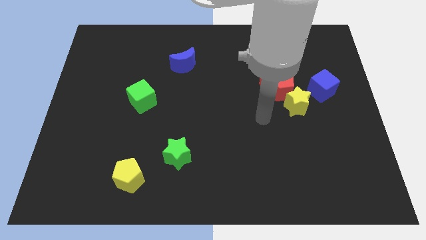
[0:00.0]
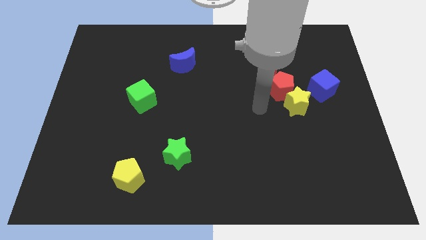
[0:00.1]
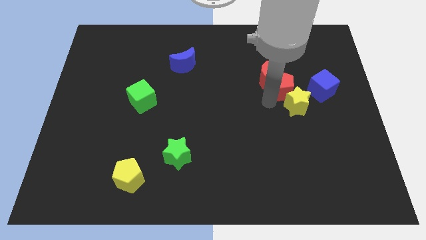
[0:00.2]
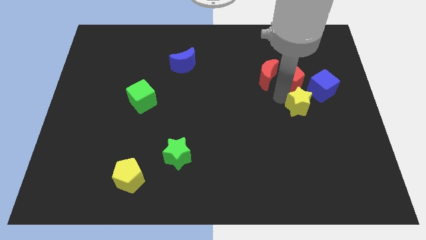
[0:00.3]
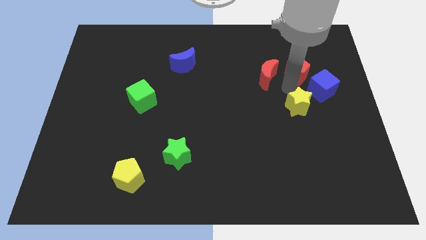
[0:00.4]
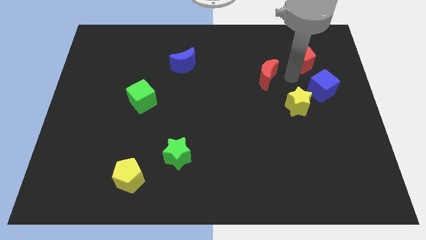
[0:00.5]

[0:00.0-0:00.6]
separate the red moon from the red pentagon

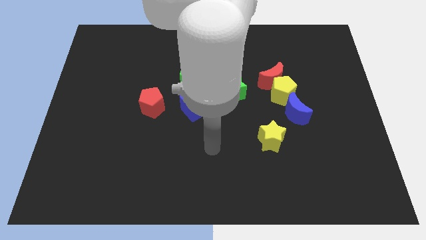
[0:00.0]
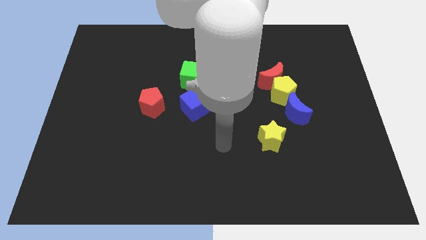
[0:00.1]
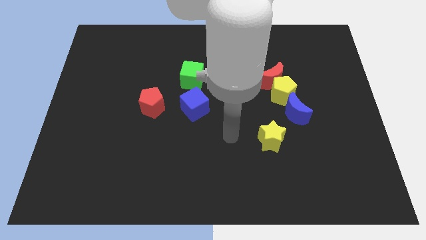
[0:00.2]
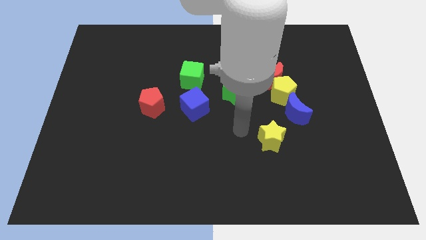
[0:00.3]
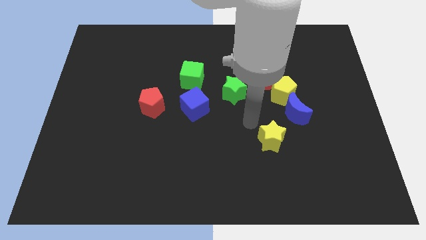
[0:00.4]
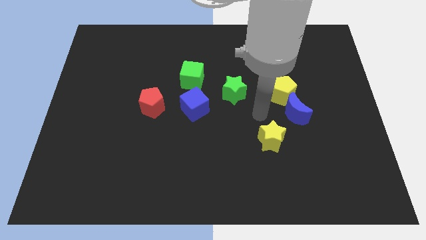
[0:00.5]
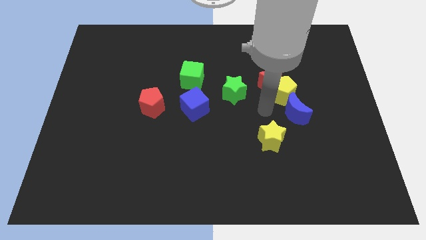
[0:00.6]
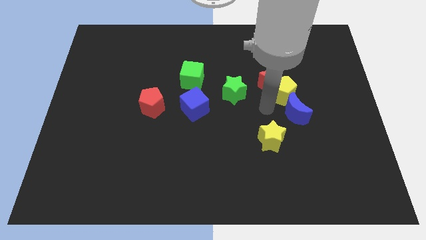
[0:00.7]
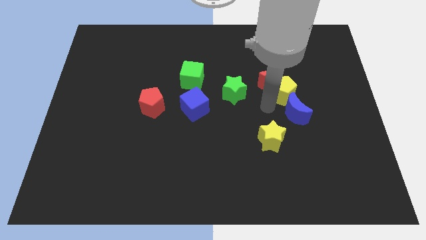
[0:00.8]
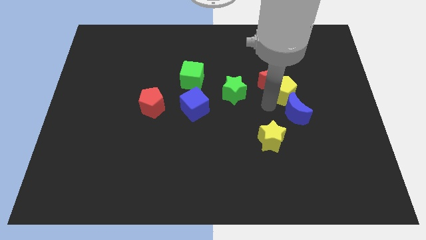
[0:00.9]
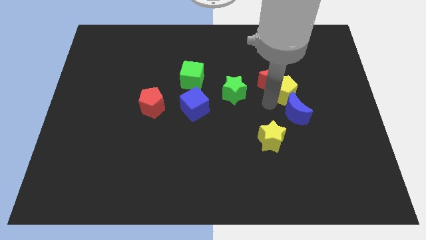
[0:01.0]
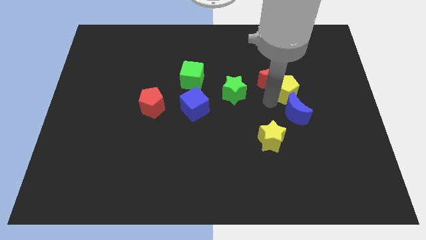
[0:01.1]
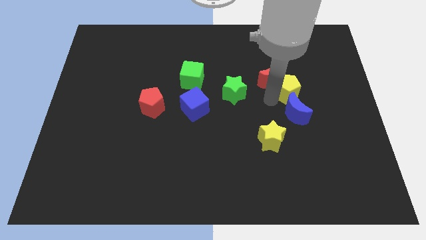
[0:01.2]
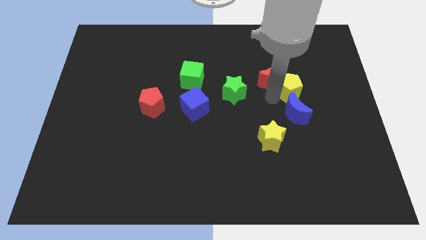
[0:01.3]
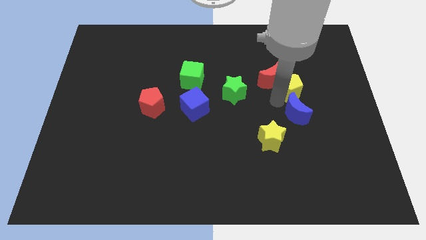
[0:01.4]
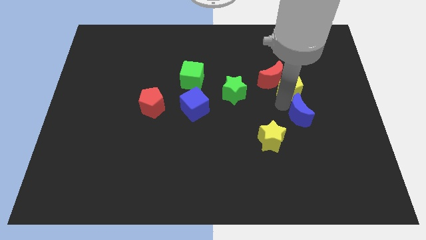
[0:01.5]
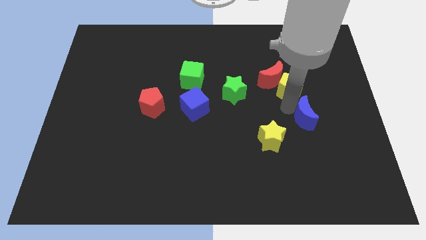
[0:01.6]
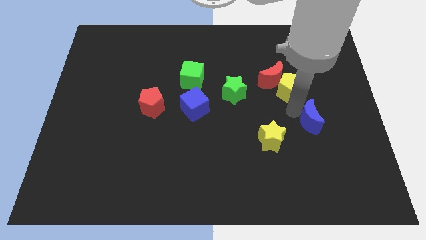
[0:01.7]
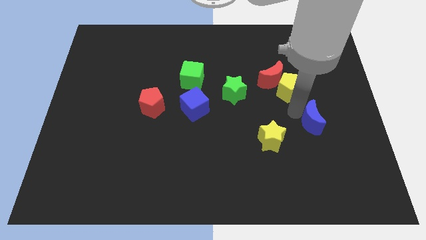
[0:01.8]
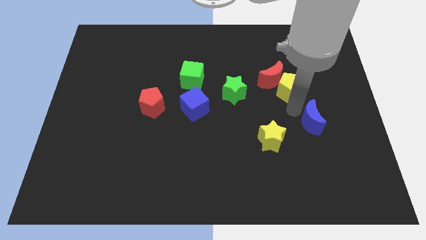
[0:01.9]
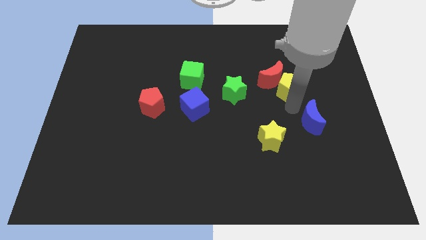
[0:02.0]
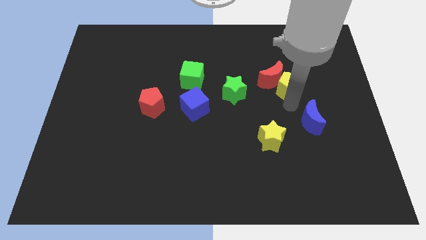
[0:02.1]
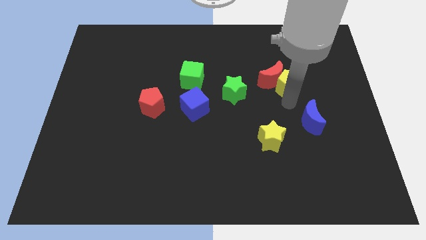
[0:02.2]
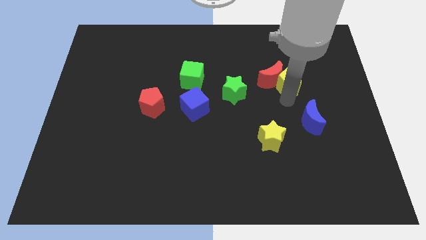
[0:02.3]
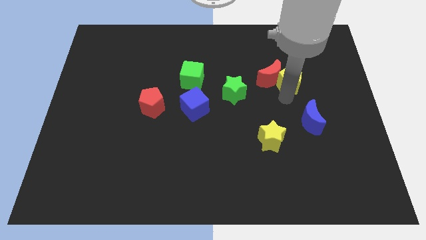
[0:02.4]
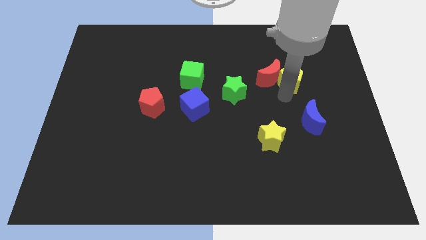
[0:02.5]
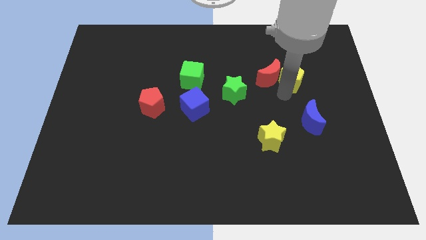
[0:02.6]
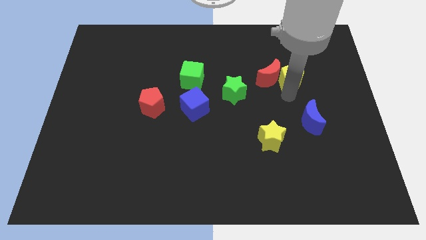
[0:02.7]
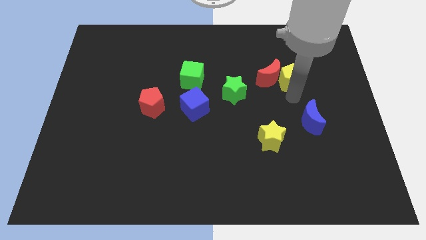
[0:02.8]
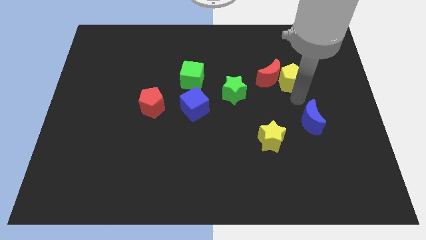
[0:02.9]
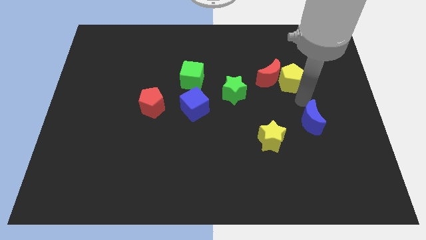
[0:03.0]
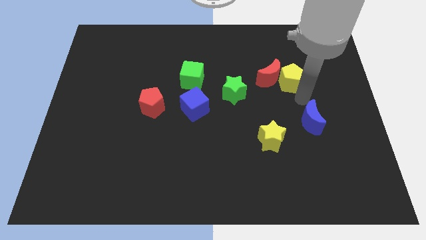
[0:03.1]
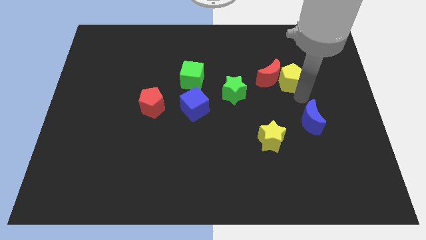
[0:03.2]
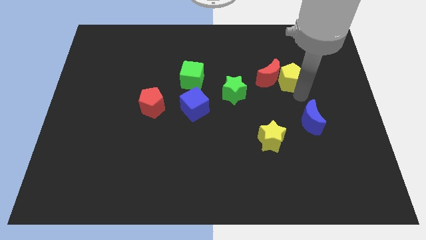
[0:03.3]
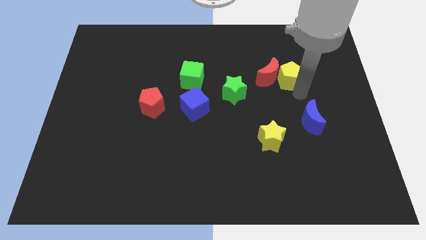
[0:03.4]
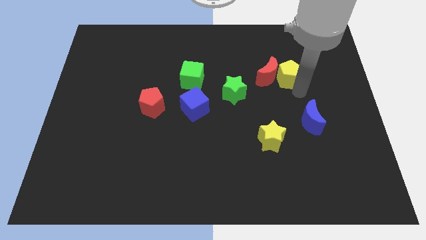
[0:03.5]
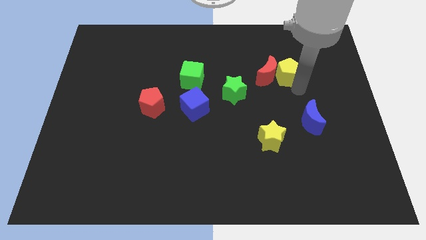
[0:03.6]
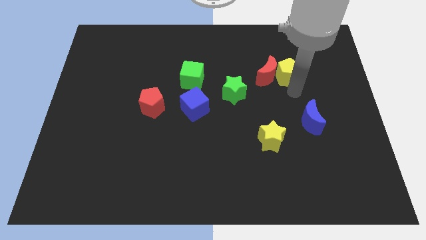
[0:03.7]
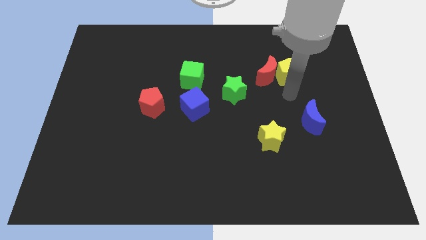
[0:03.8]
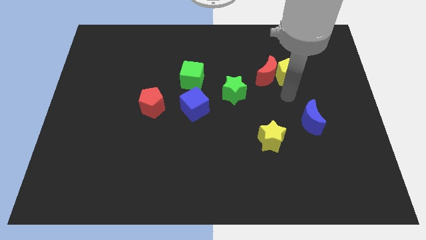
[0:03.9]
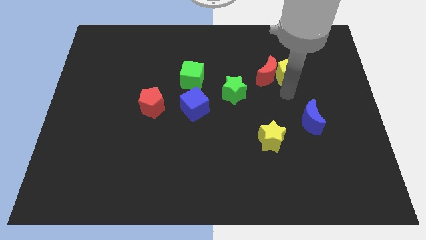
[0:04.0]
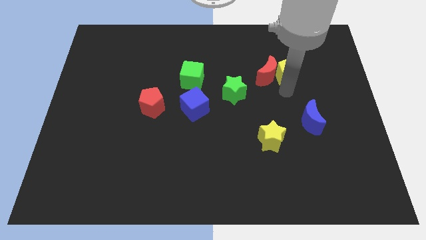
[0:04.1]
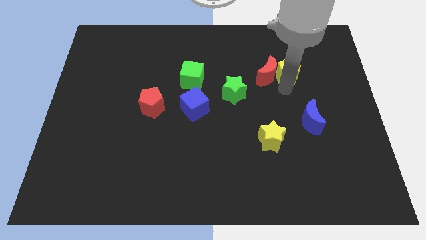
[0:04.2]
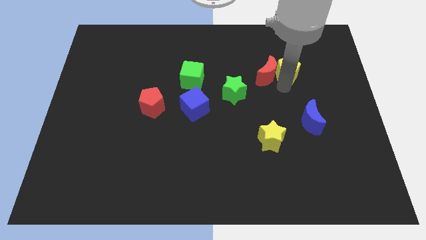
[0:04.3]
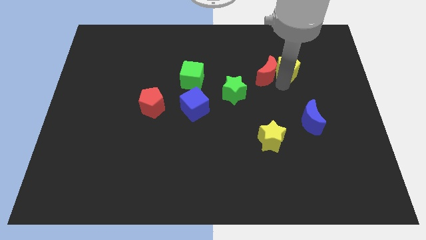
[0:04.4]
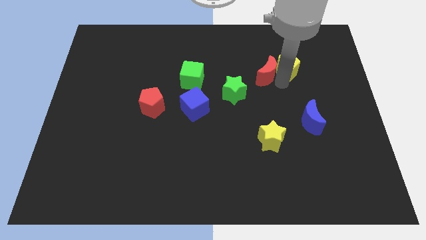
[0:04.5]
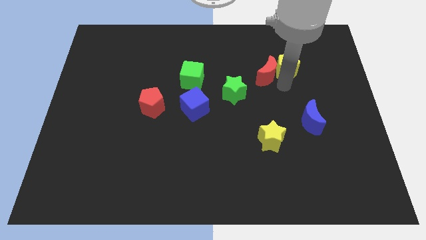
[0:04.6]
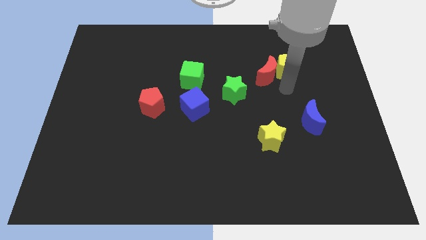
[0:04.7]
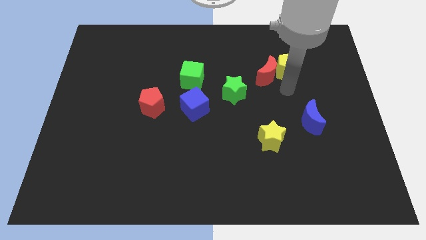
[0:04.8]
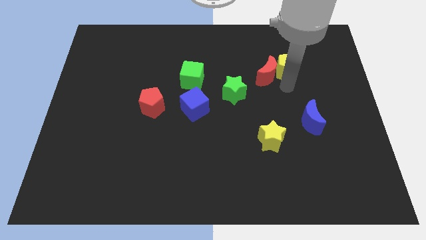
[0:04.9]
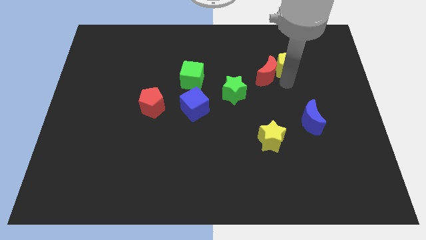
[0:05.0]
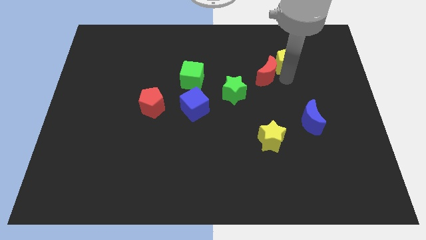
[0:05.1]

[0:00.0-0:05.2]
pull the yellow pentagon apart from the red moon and blue moon

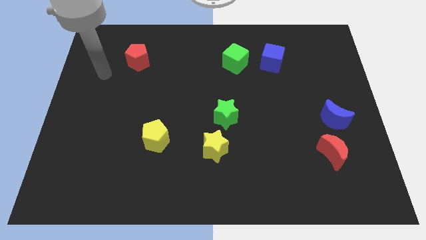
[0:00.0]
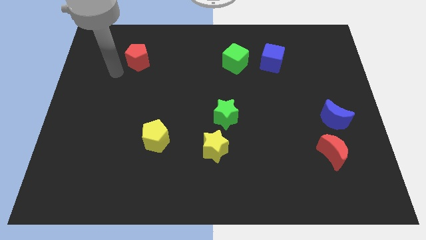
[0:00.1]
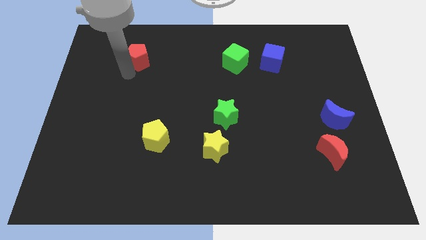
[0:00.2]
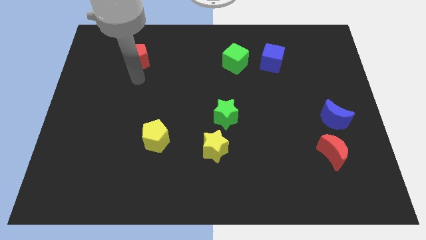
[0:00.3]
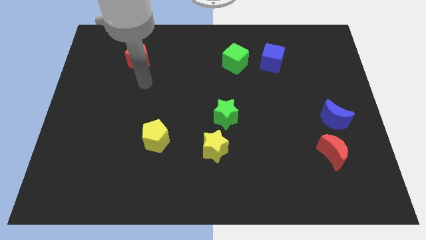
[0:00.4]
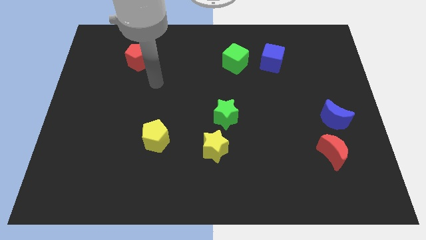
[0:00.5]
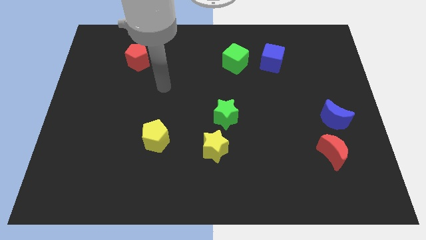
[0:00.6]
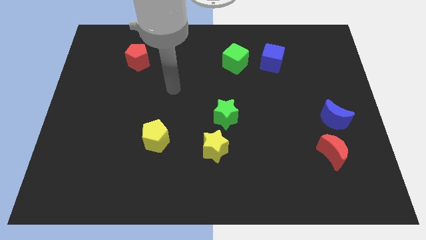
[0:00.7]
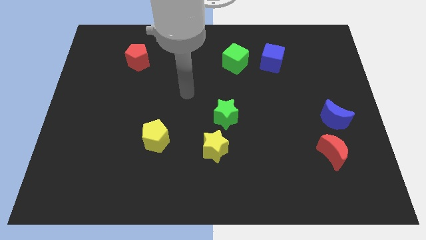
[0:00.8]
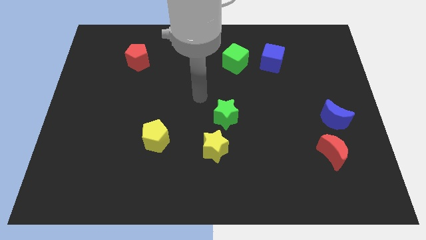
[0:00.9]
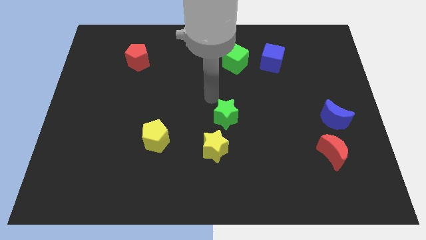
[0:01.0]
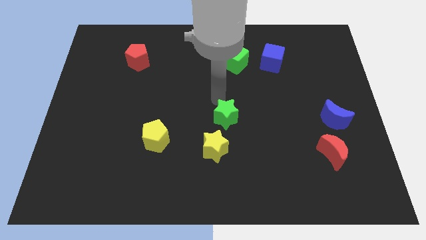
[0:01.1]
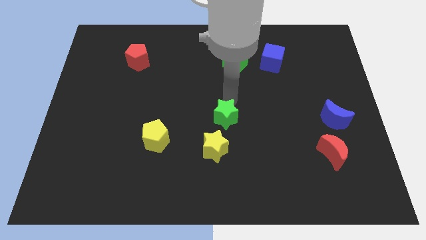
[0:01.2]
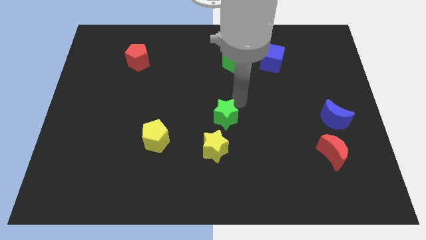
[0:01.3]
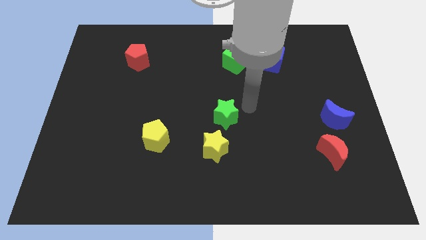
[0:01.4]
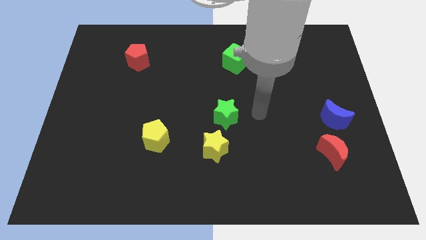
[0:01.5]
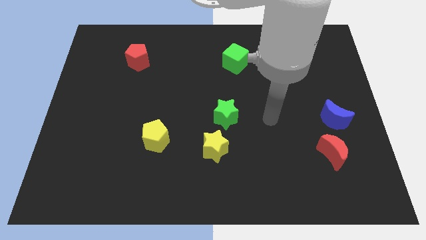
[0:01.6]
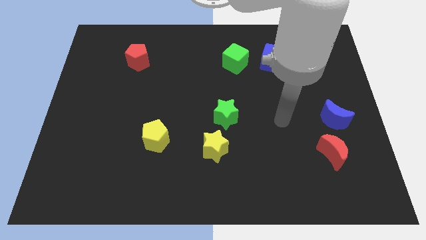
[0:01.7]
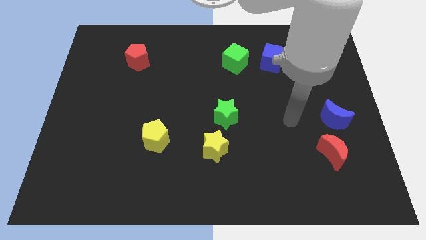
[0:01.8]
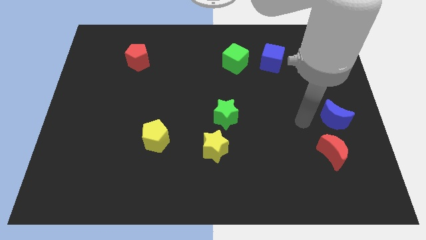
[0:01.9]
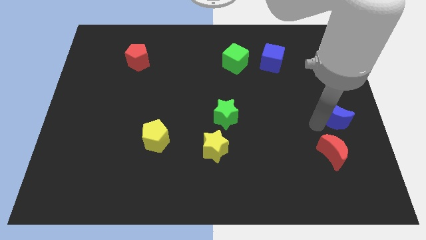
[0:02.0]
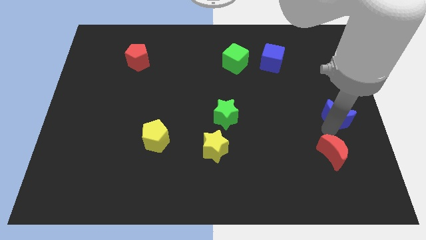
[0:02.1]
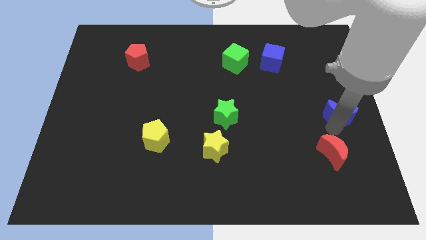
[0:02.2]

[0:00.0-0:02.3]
pull the red moon apart from the blue moon

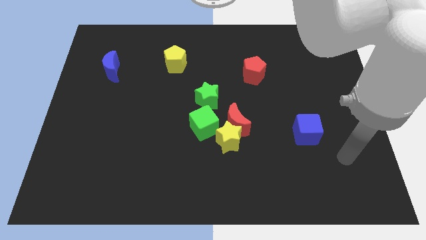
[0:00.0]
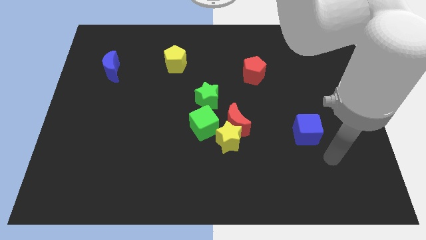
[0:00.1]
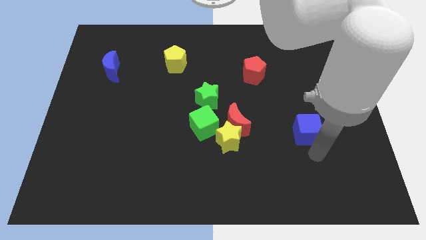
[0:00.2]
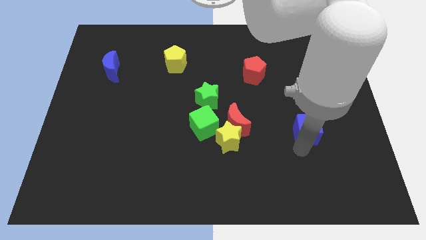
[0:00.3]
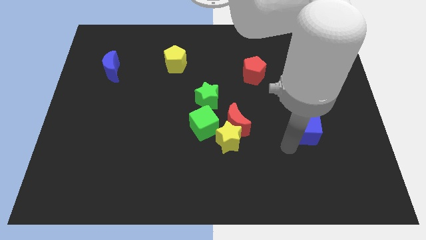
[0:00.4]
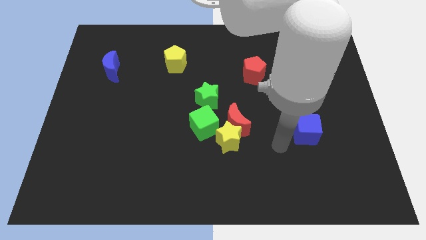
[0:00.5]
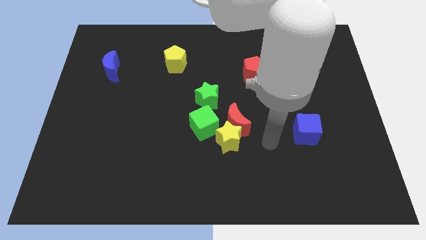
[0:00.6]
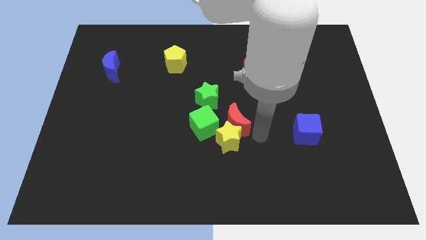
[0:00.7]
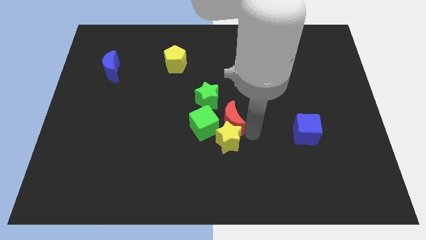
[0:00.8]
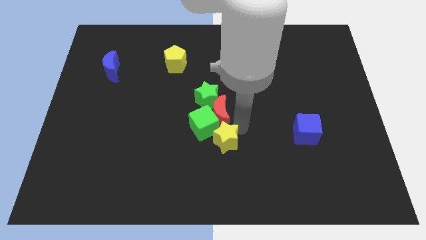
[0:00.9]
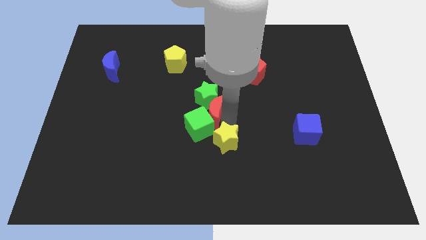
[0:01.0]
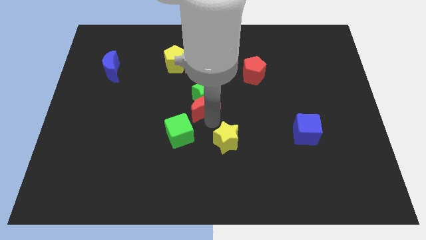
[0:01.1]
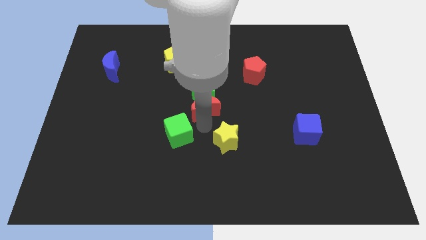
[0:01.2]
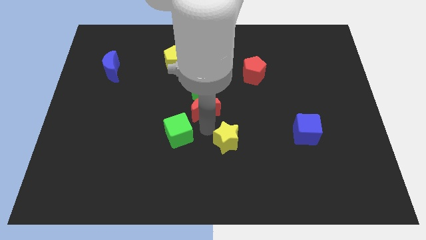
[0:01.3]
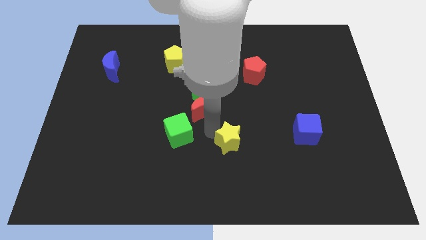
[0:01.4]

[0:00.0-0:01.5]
pull the yellow star apart from the red moon and green cube
